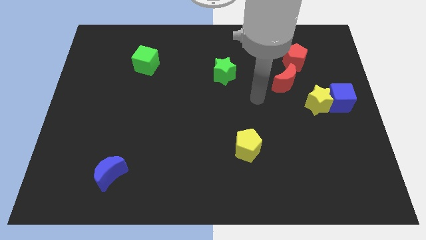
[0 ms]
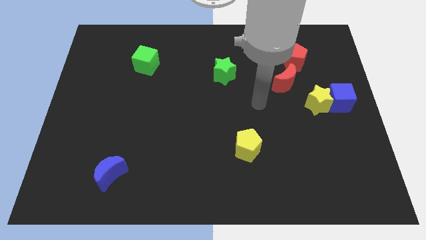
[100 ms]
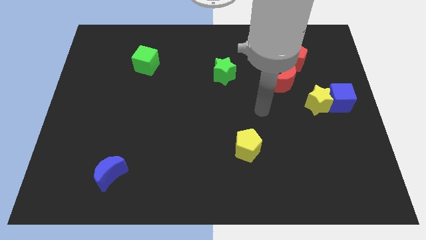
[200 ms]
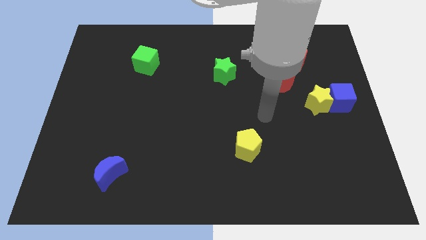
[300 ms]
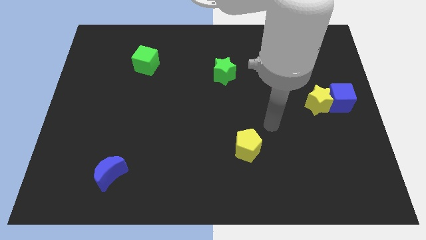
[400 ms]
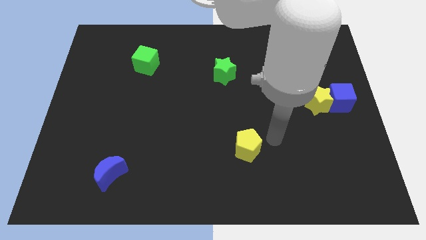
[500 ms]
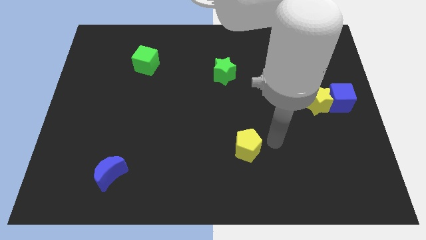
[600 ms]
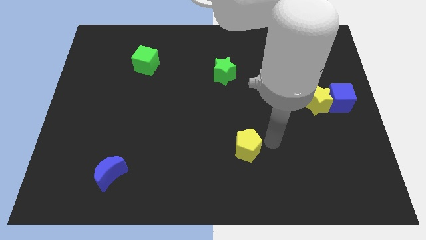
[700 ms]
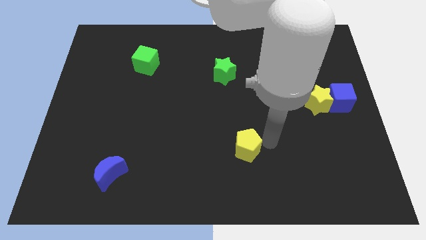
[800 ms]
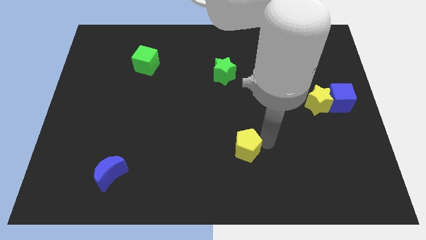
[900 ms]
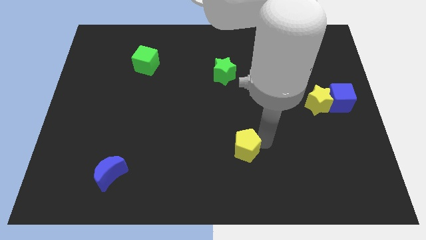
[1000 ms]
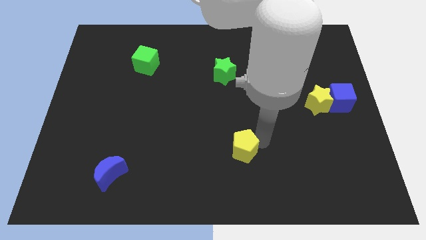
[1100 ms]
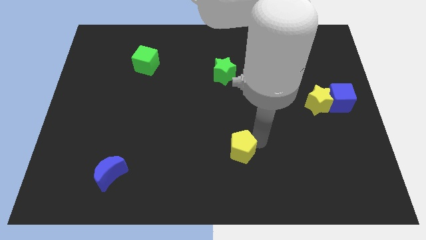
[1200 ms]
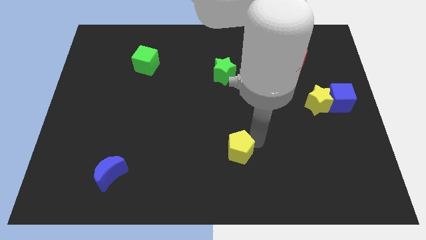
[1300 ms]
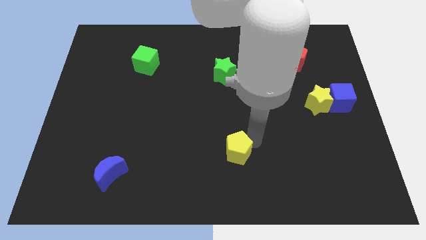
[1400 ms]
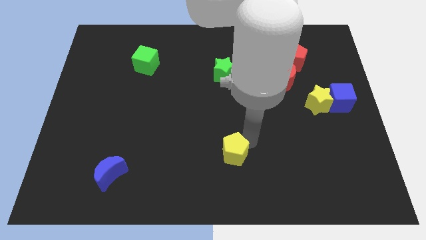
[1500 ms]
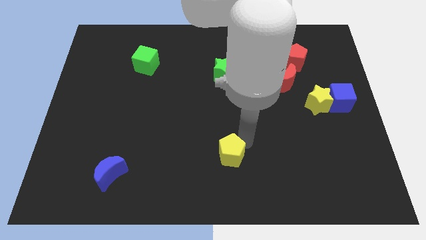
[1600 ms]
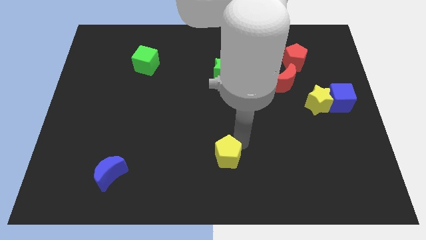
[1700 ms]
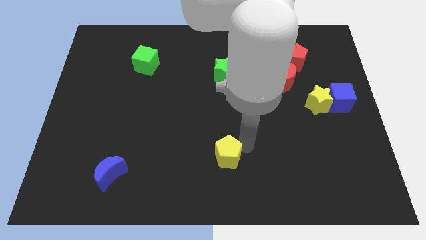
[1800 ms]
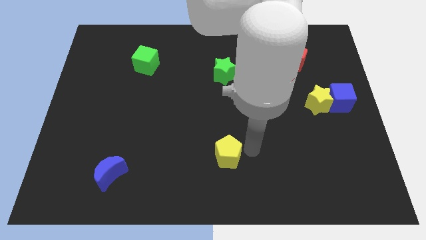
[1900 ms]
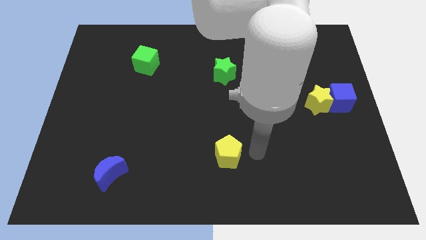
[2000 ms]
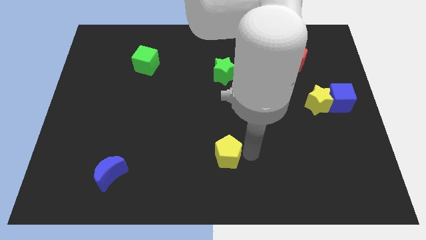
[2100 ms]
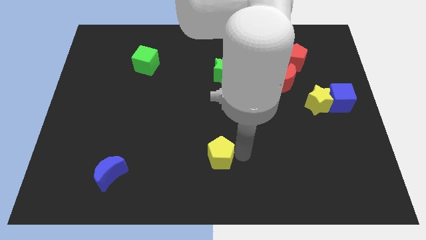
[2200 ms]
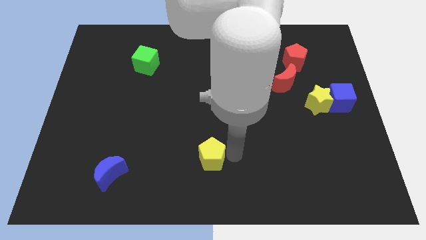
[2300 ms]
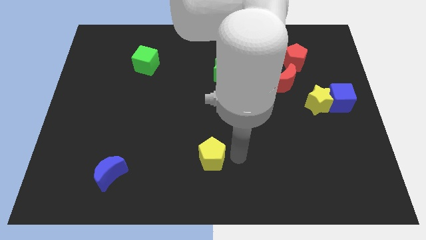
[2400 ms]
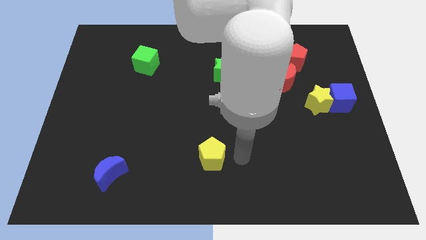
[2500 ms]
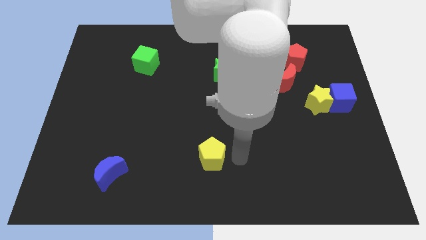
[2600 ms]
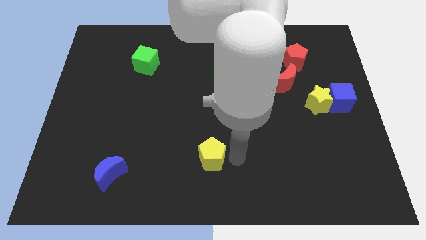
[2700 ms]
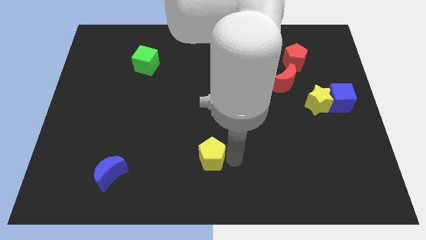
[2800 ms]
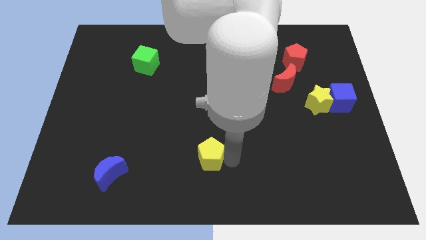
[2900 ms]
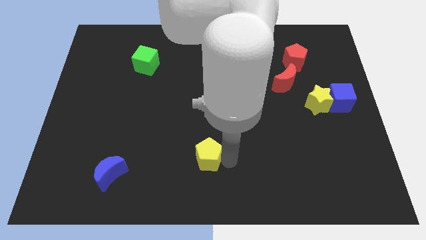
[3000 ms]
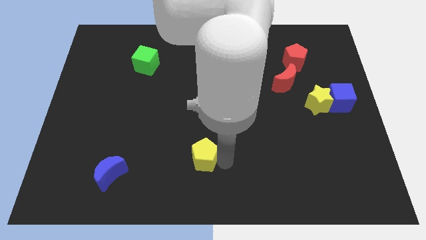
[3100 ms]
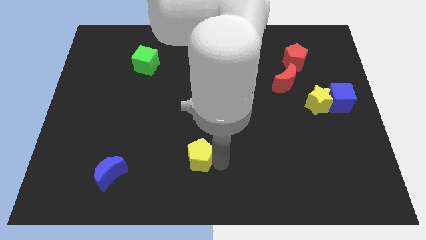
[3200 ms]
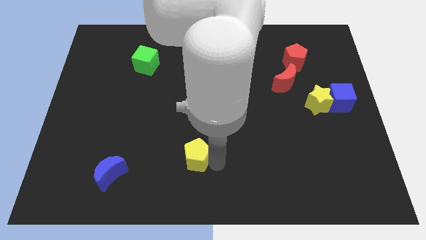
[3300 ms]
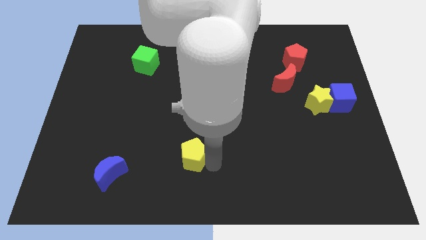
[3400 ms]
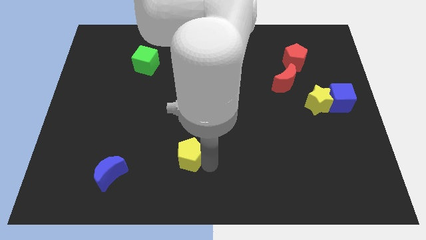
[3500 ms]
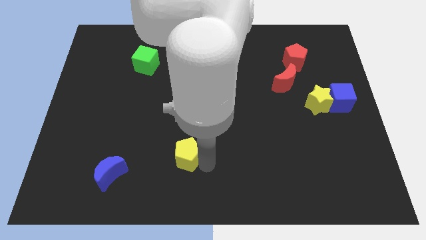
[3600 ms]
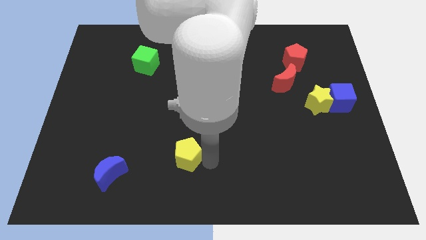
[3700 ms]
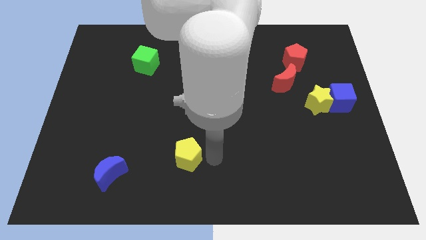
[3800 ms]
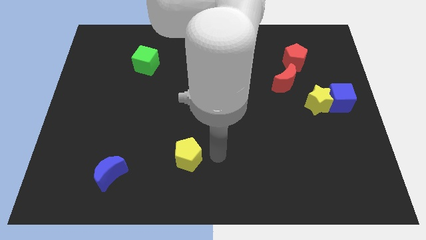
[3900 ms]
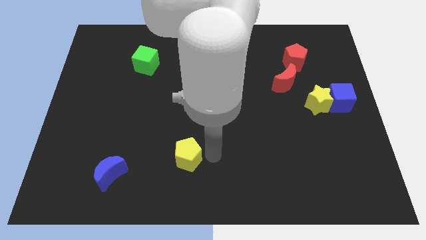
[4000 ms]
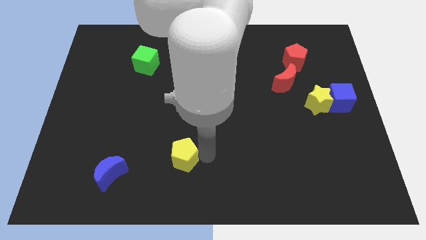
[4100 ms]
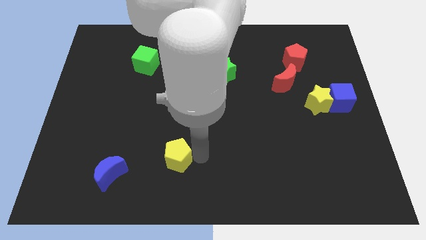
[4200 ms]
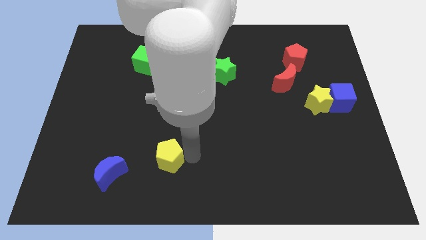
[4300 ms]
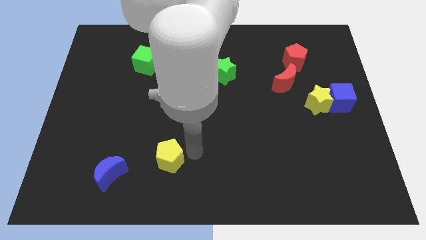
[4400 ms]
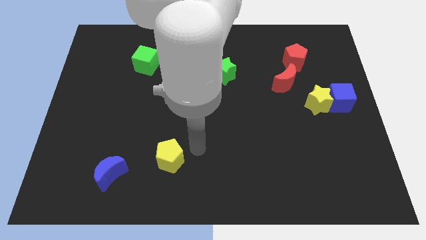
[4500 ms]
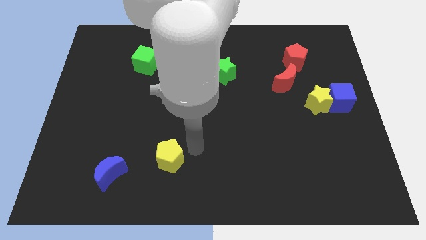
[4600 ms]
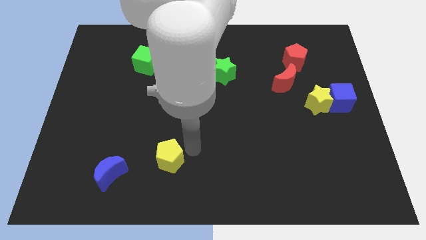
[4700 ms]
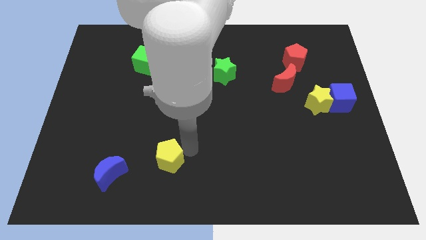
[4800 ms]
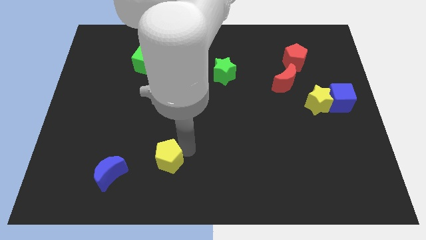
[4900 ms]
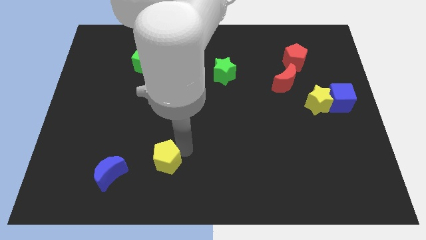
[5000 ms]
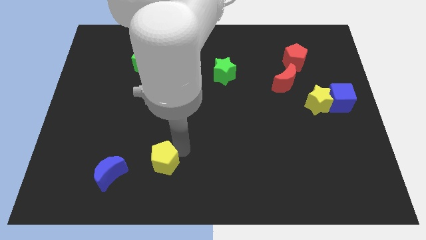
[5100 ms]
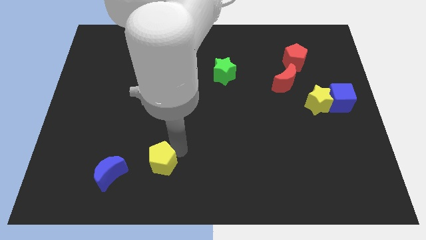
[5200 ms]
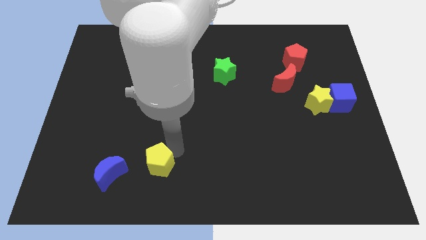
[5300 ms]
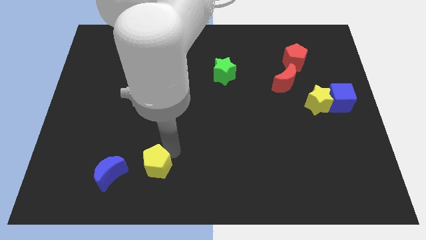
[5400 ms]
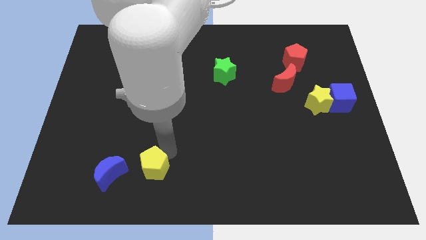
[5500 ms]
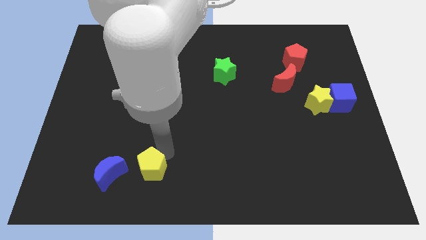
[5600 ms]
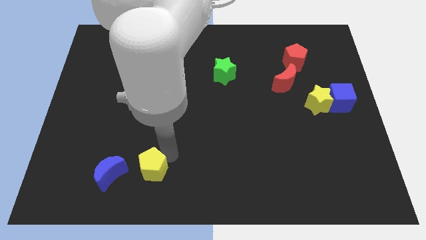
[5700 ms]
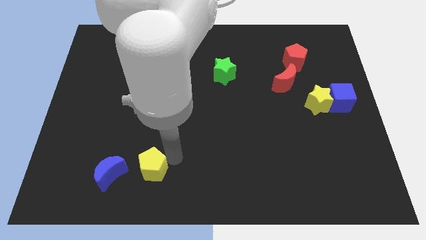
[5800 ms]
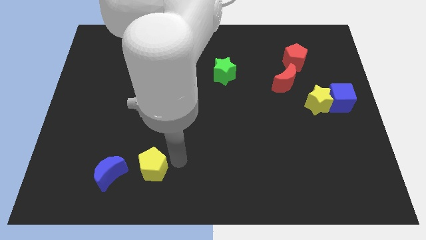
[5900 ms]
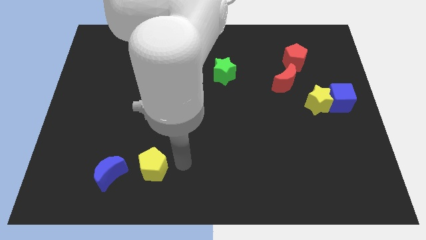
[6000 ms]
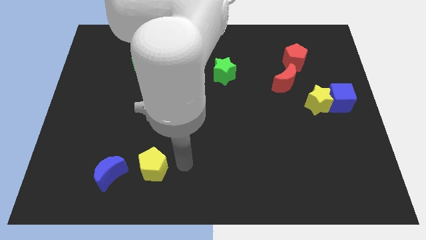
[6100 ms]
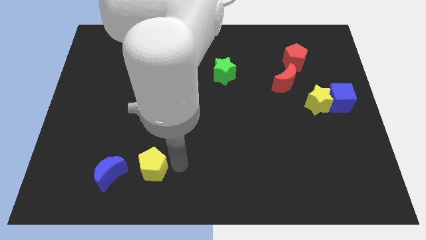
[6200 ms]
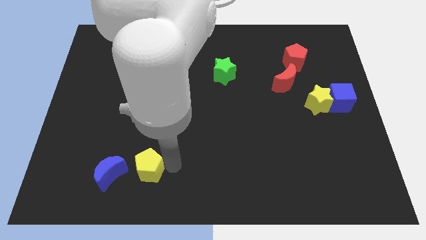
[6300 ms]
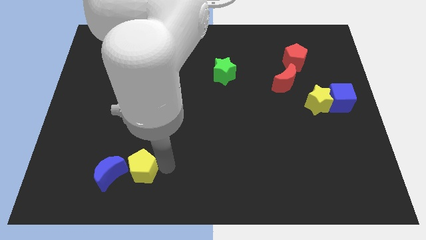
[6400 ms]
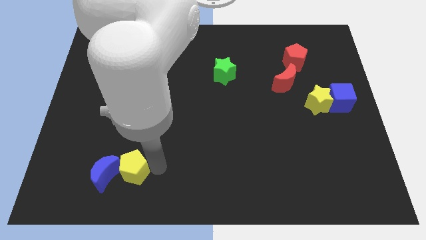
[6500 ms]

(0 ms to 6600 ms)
slide the yellow pentagon close to the blue moon
